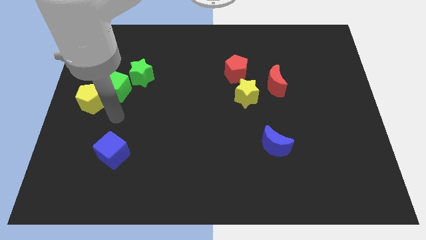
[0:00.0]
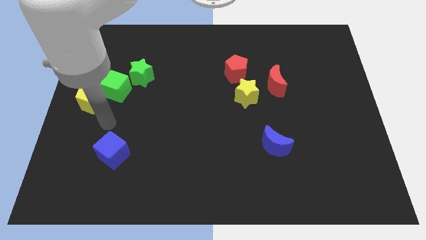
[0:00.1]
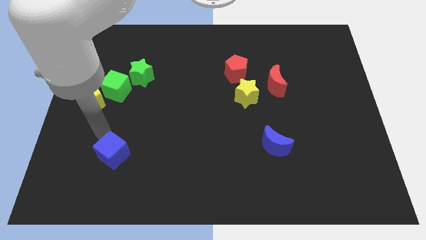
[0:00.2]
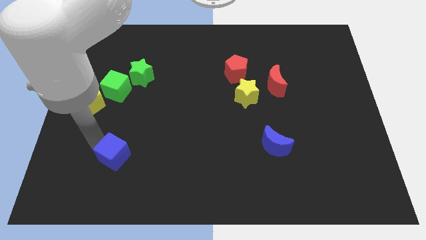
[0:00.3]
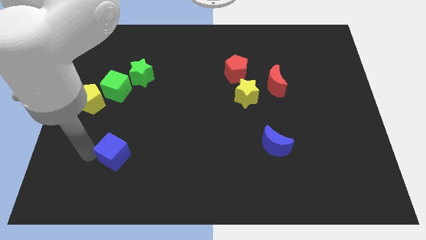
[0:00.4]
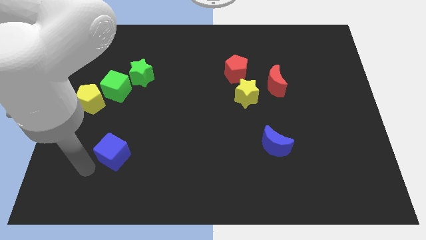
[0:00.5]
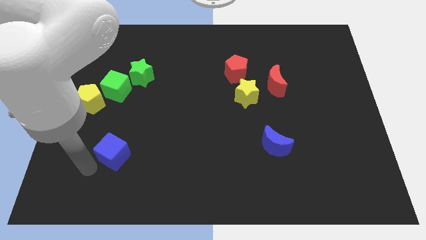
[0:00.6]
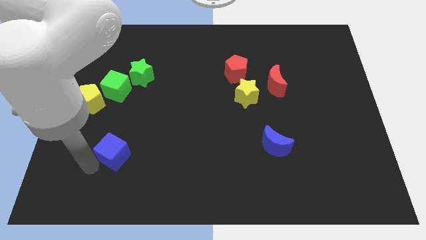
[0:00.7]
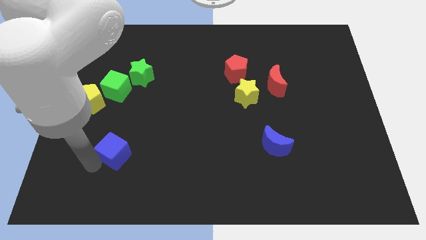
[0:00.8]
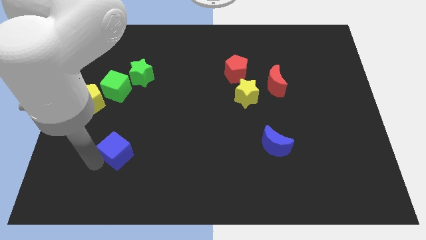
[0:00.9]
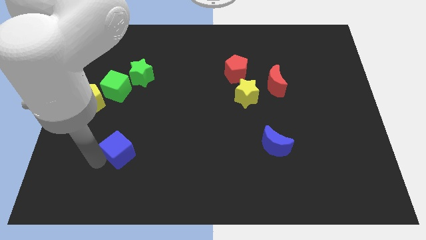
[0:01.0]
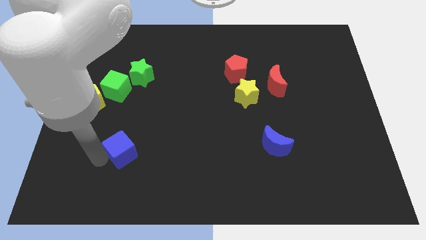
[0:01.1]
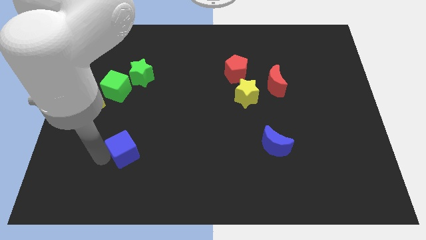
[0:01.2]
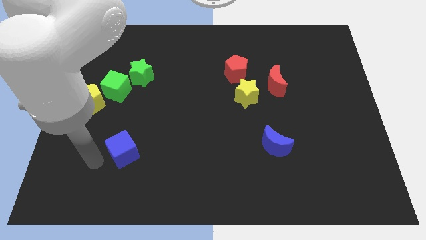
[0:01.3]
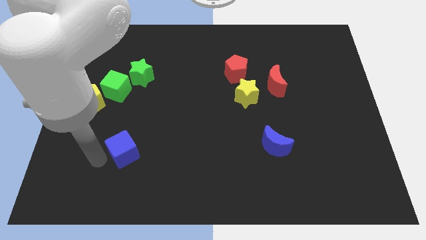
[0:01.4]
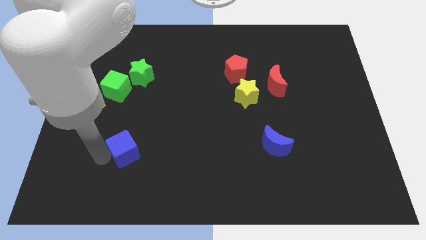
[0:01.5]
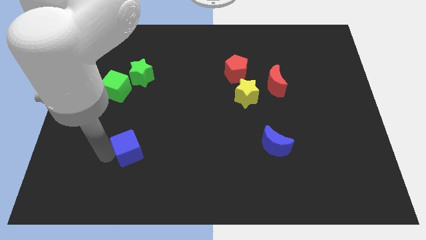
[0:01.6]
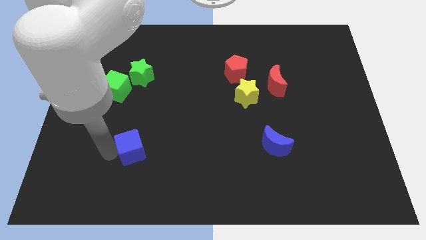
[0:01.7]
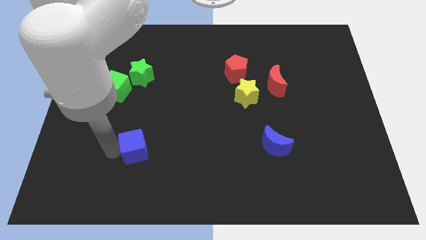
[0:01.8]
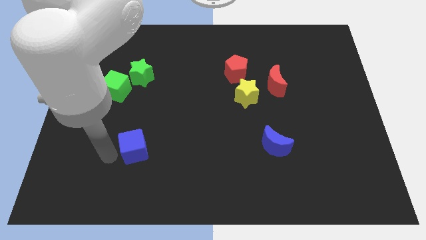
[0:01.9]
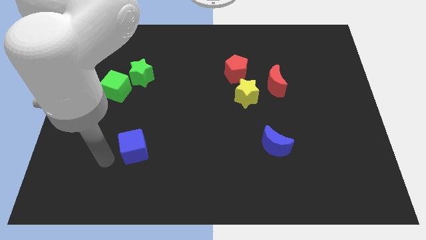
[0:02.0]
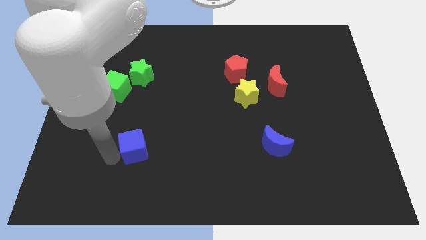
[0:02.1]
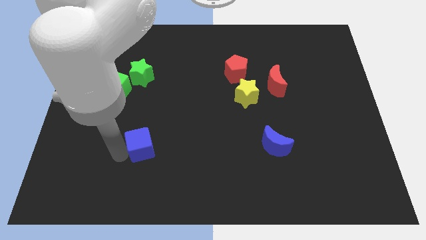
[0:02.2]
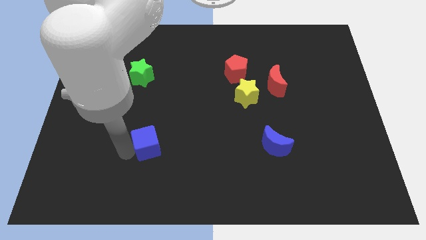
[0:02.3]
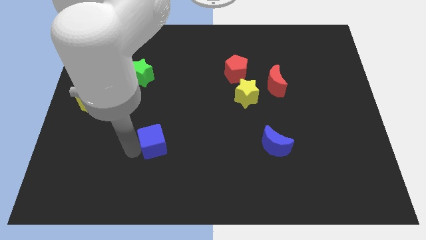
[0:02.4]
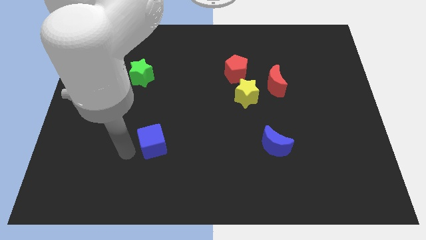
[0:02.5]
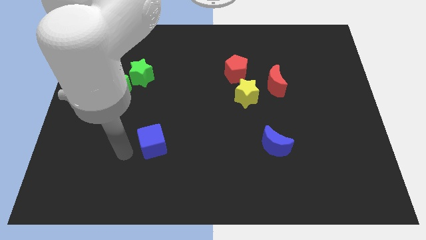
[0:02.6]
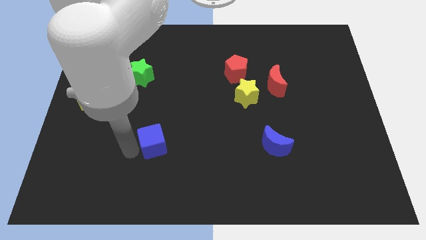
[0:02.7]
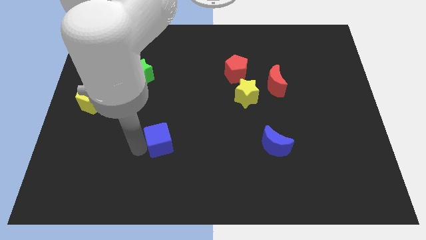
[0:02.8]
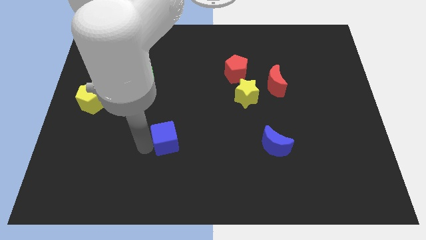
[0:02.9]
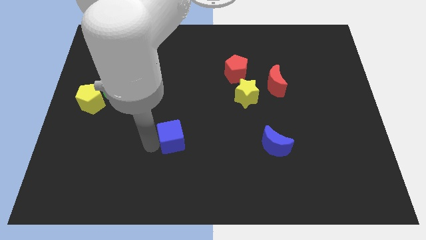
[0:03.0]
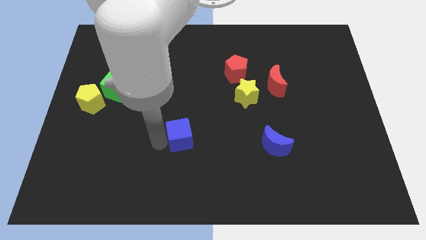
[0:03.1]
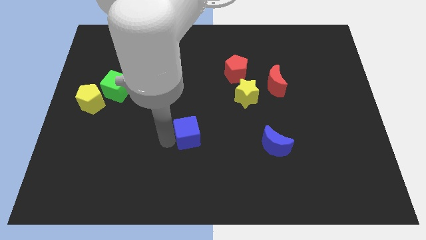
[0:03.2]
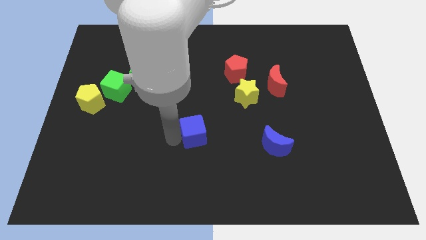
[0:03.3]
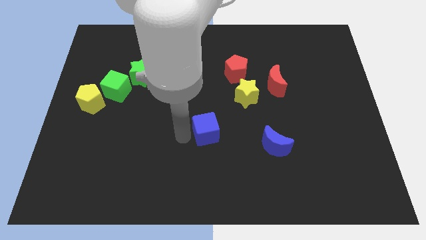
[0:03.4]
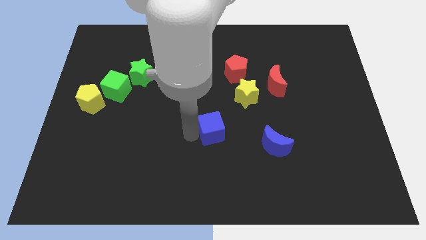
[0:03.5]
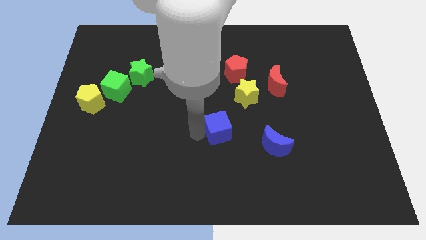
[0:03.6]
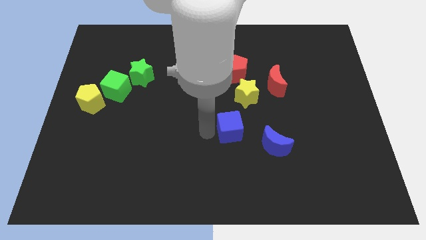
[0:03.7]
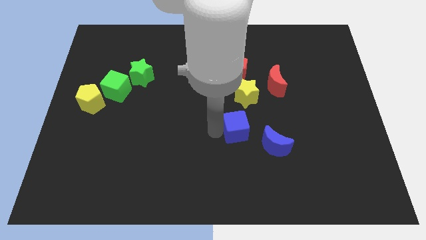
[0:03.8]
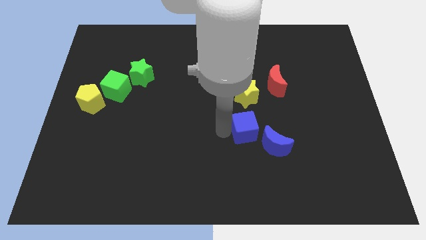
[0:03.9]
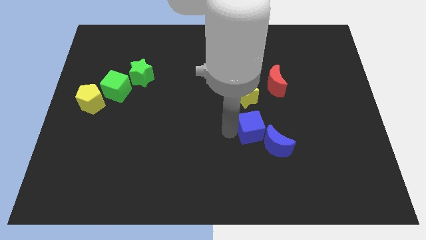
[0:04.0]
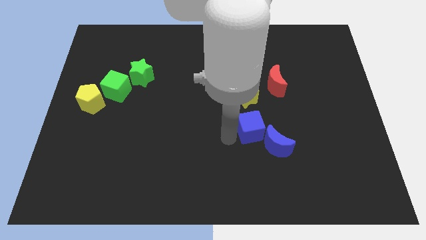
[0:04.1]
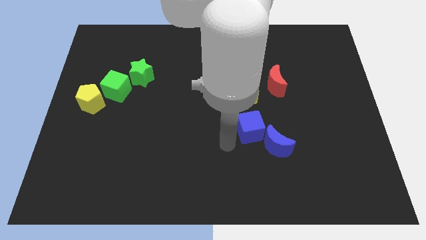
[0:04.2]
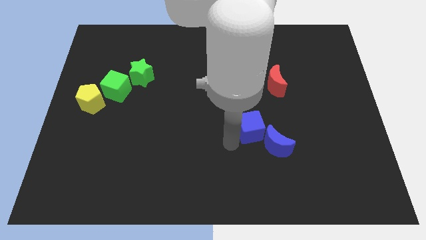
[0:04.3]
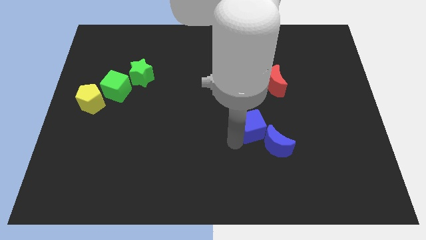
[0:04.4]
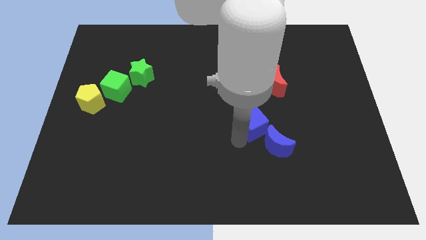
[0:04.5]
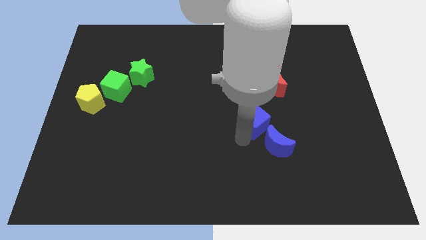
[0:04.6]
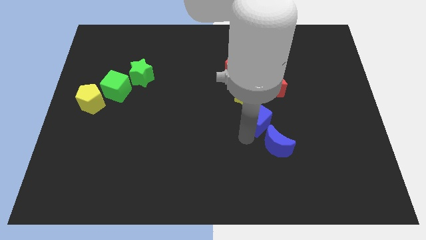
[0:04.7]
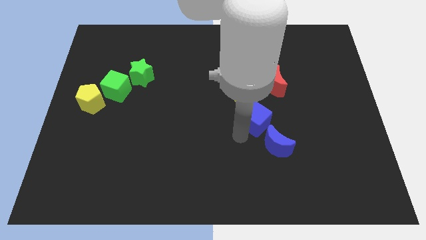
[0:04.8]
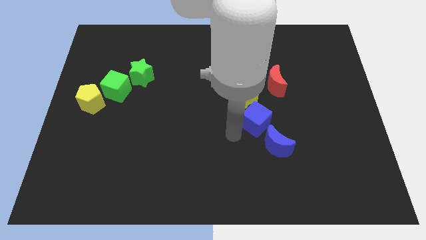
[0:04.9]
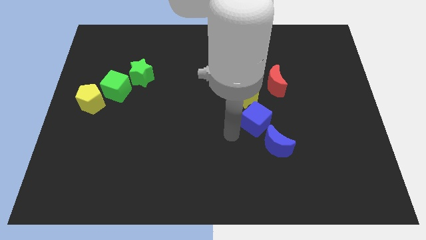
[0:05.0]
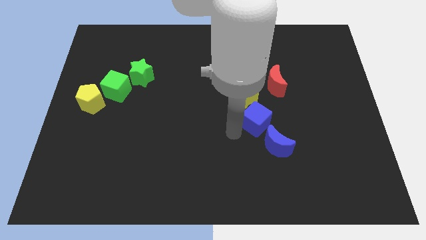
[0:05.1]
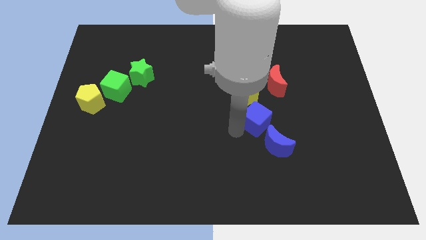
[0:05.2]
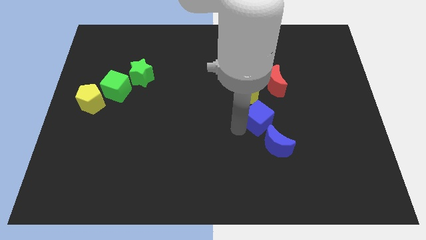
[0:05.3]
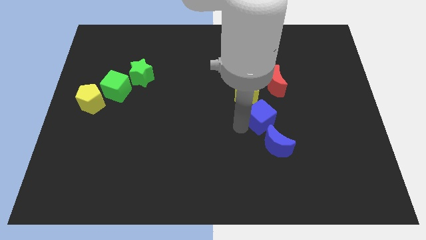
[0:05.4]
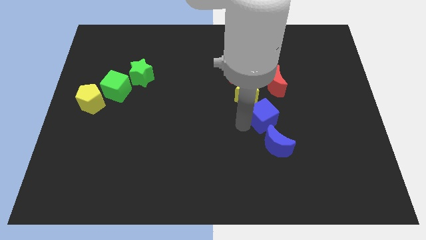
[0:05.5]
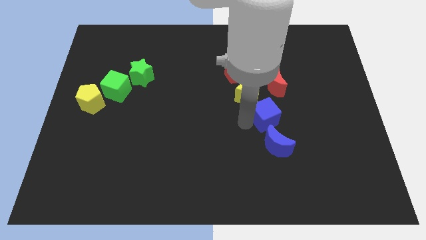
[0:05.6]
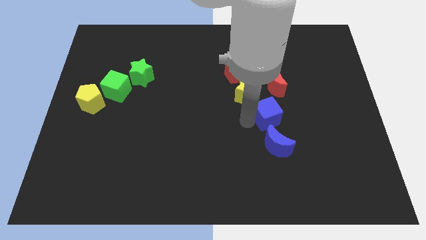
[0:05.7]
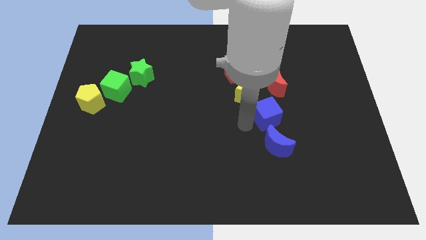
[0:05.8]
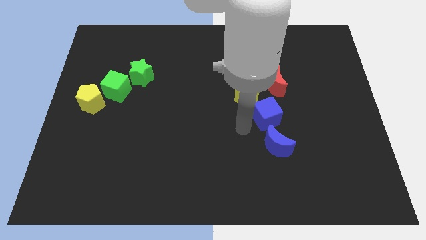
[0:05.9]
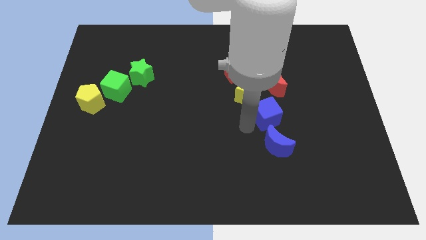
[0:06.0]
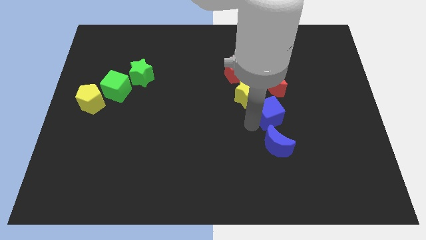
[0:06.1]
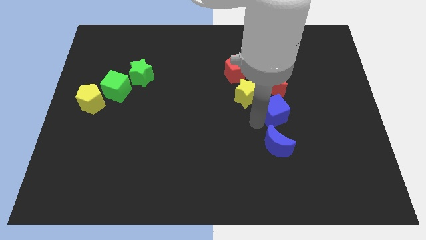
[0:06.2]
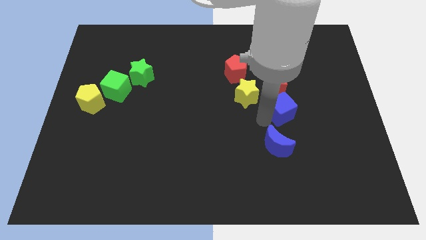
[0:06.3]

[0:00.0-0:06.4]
move the blue cube just right of the yellow star
